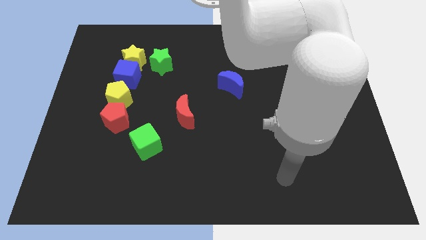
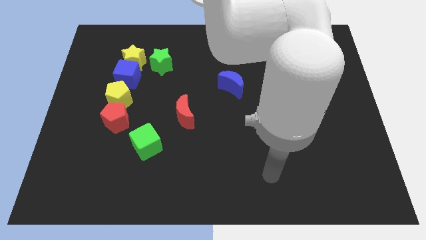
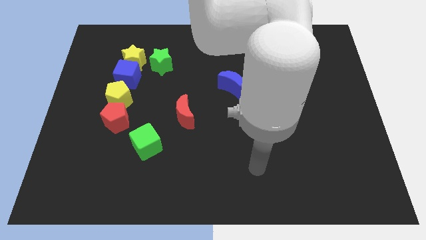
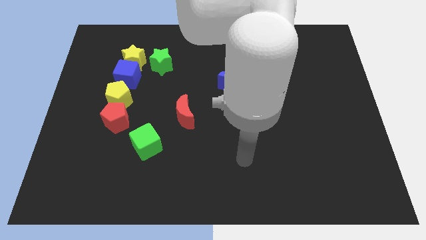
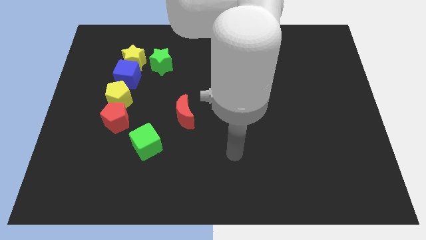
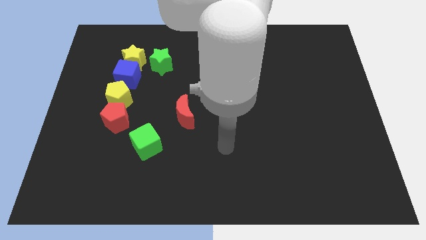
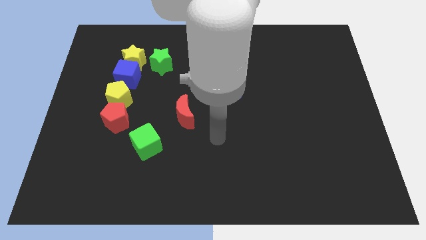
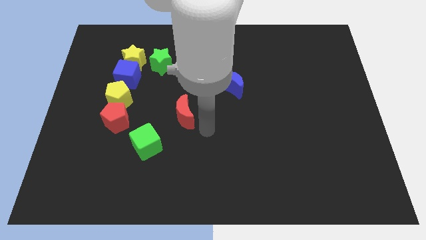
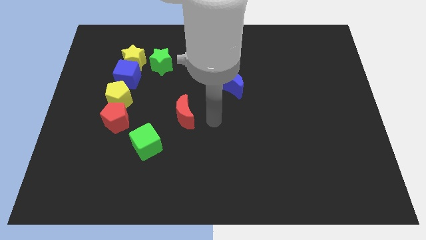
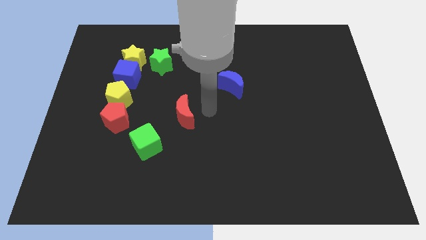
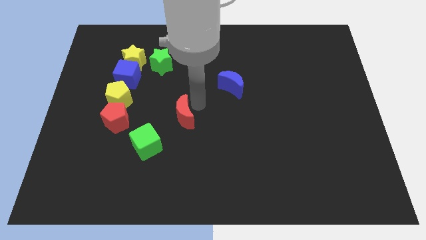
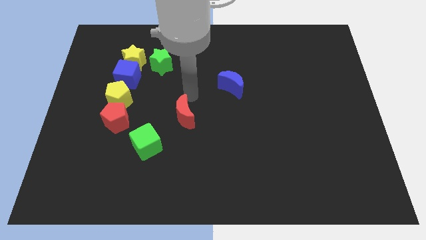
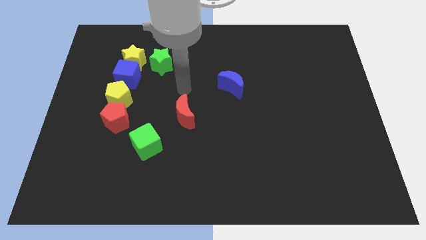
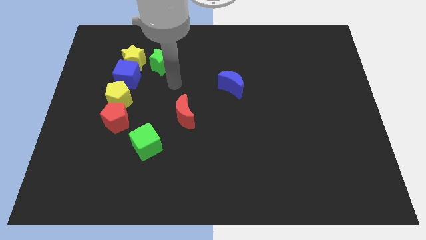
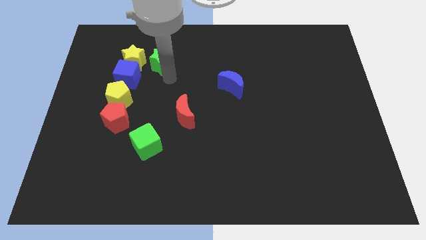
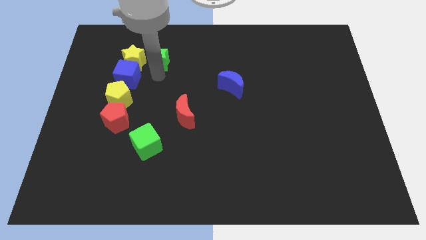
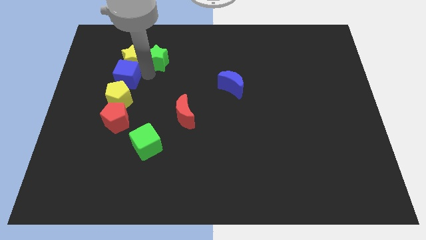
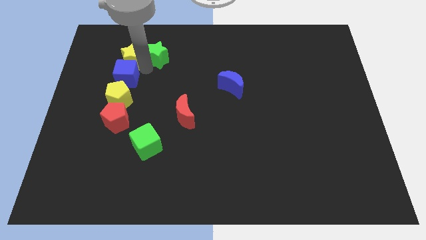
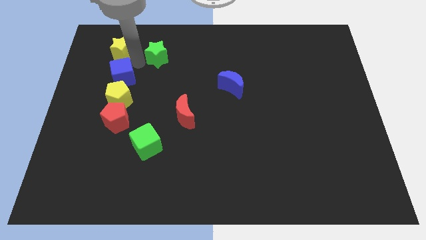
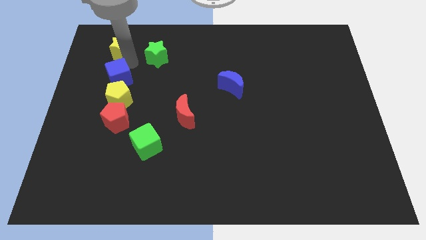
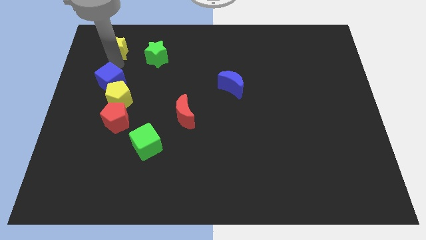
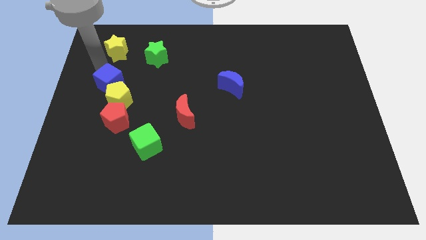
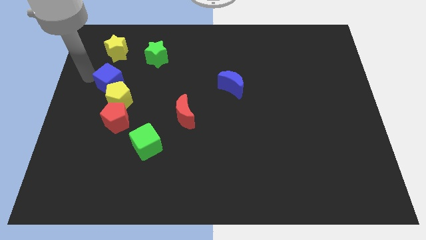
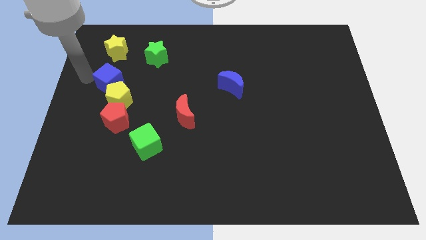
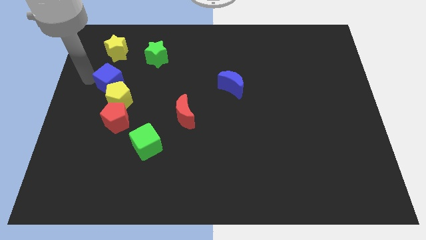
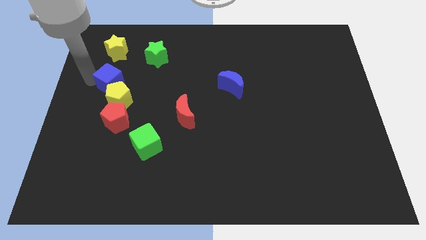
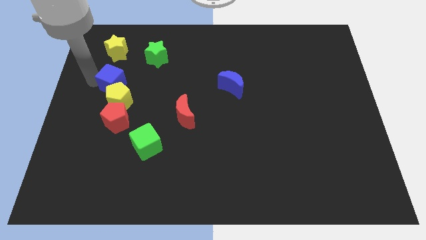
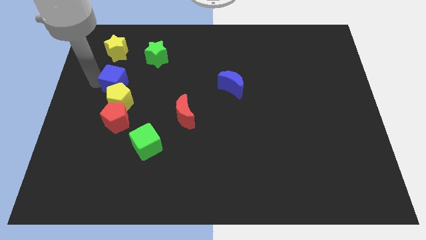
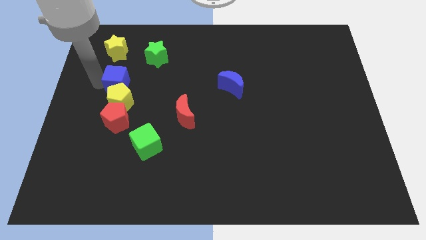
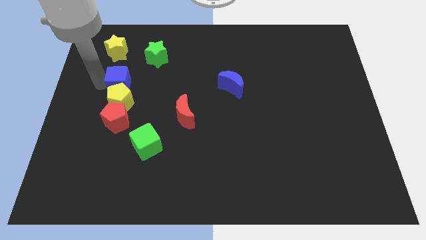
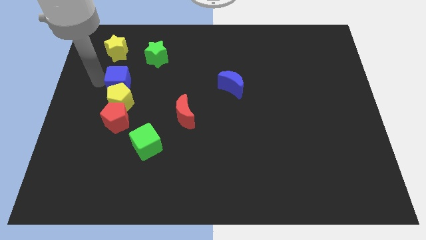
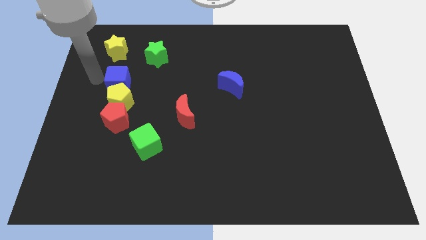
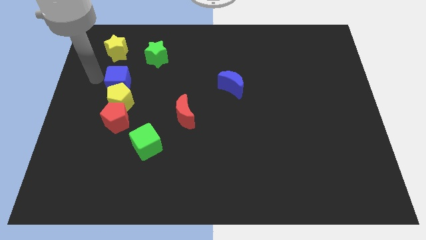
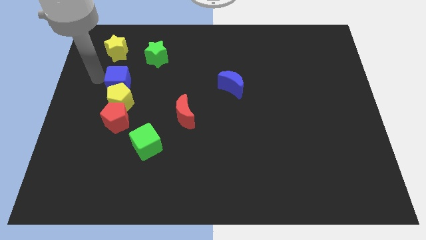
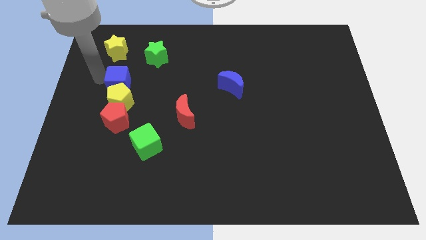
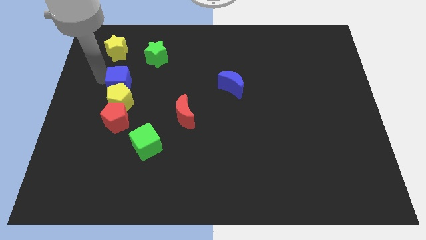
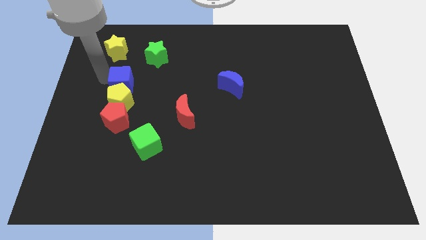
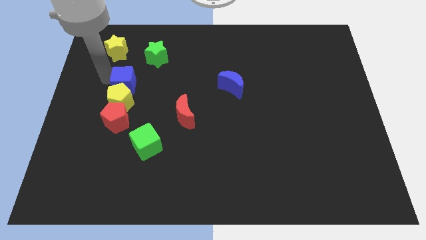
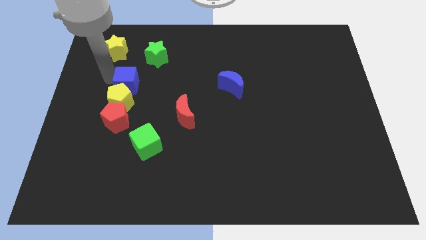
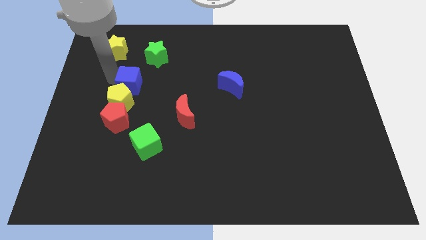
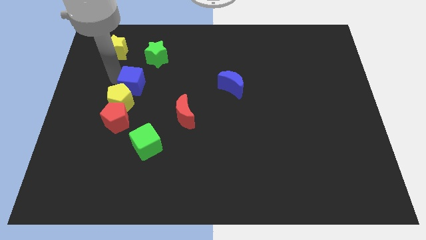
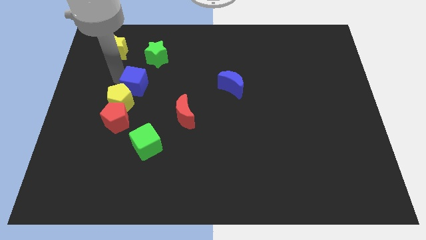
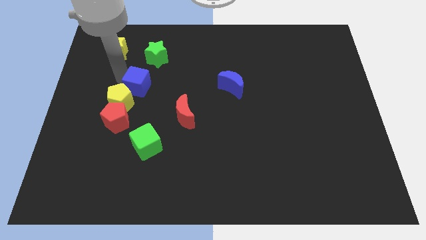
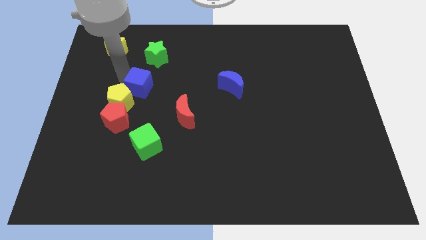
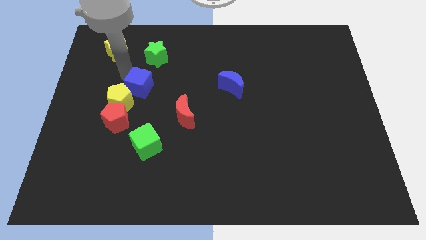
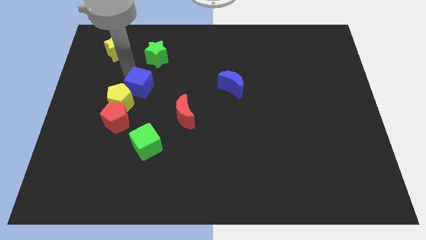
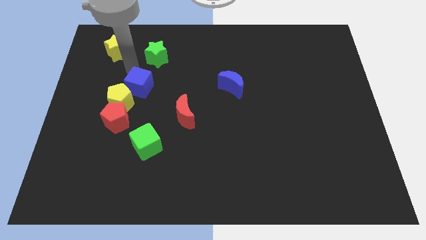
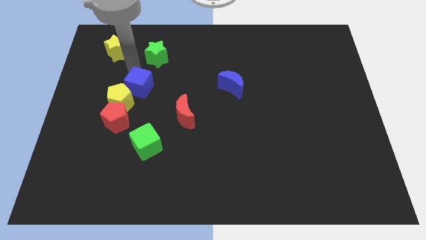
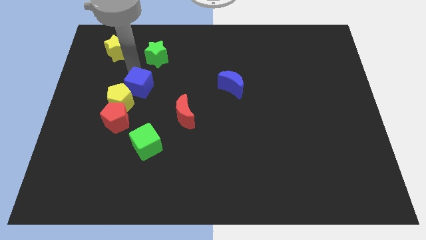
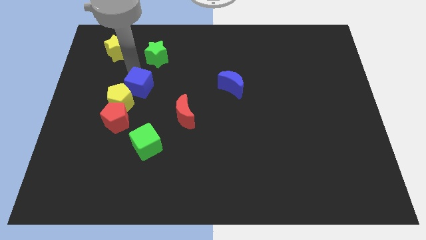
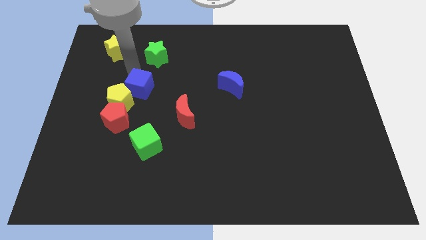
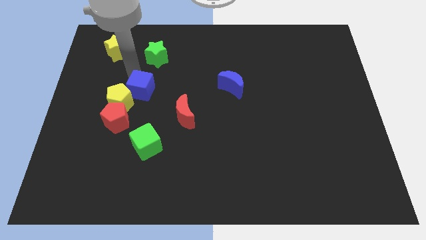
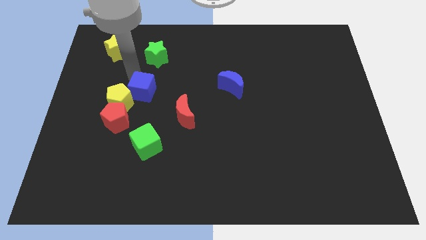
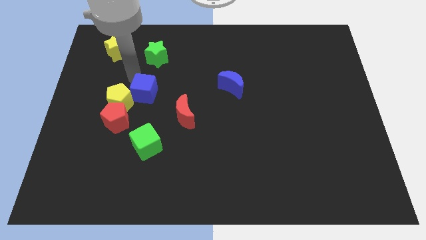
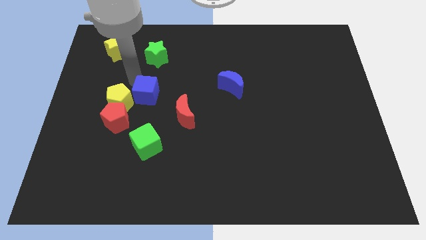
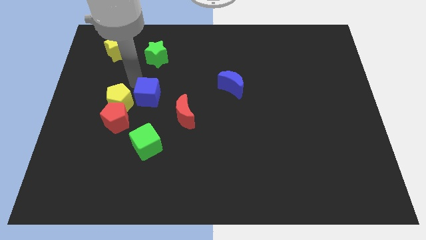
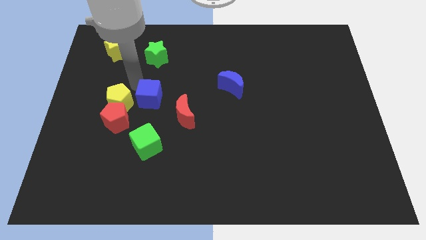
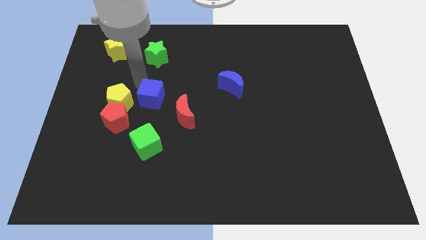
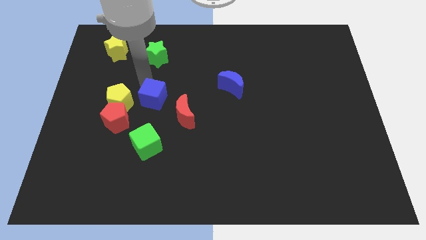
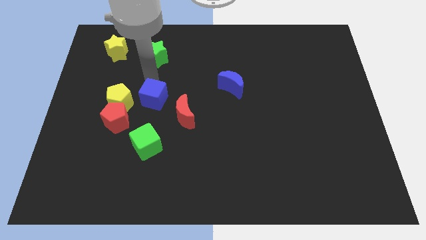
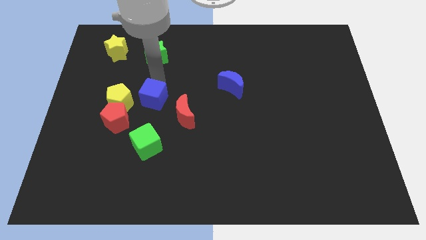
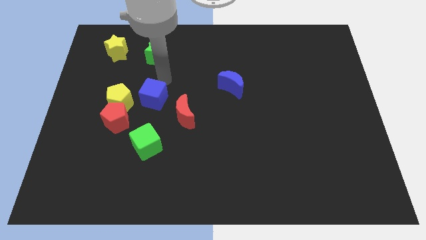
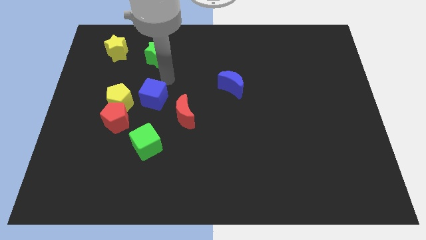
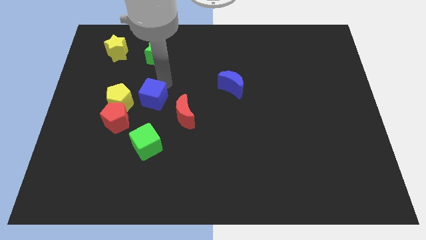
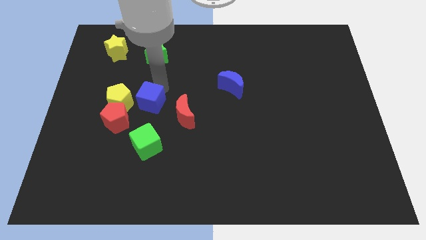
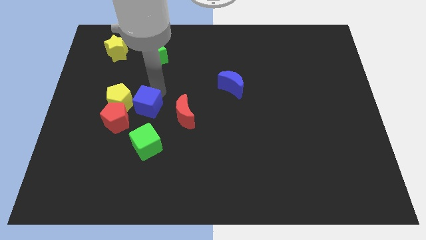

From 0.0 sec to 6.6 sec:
slide the blue cube somewhat down

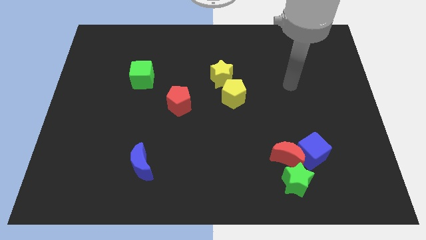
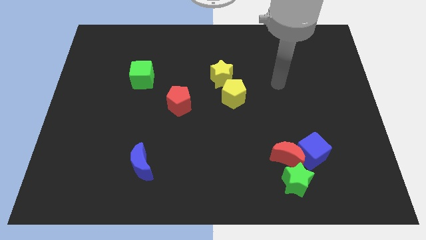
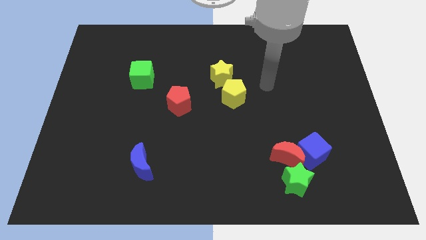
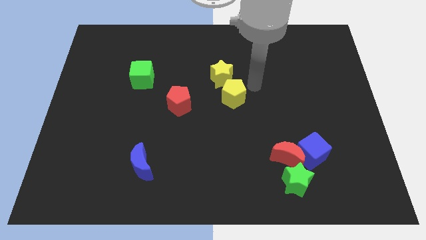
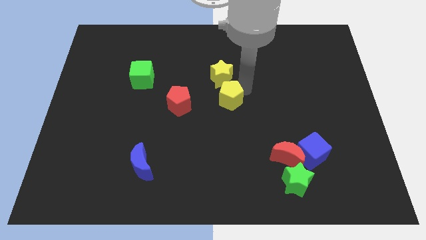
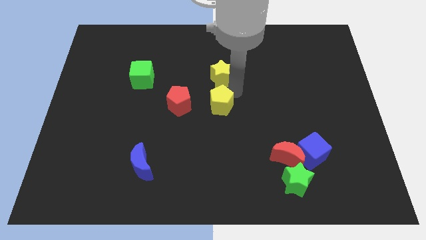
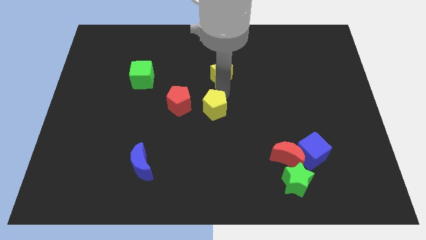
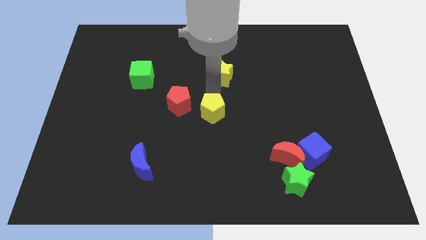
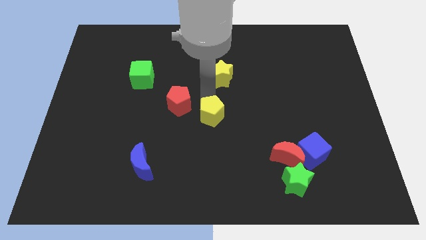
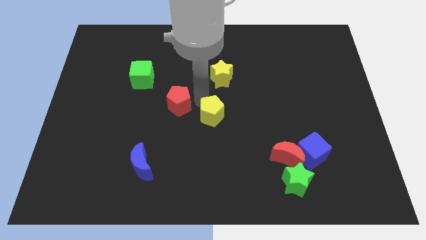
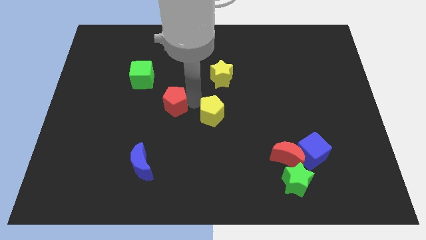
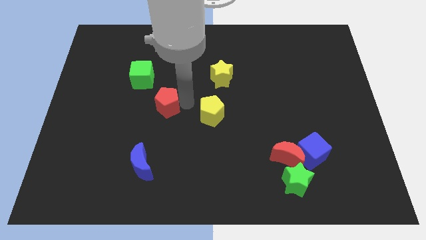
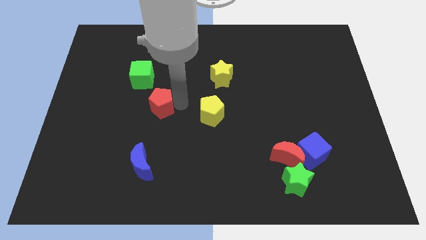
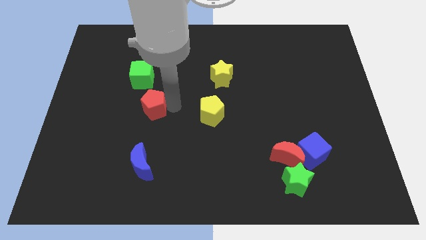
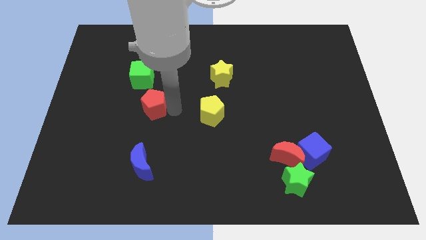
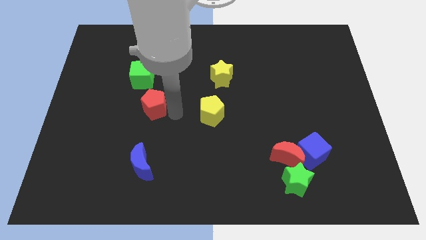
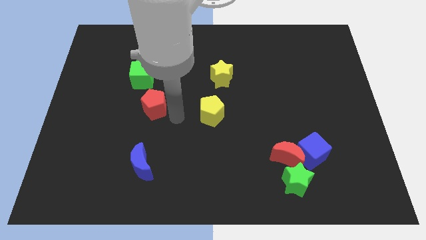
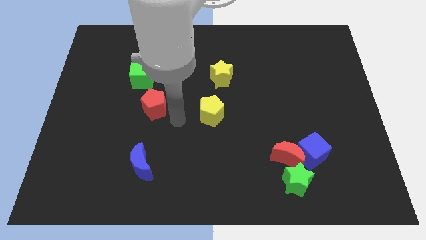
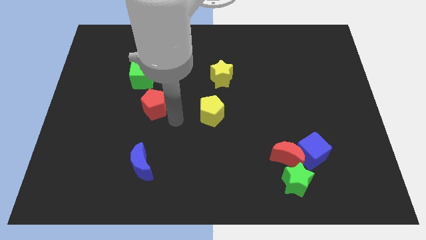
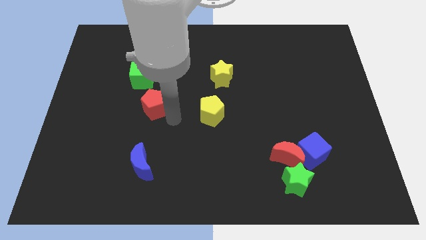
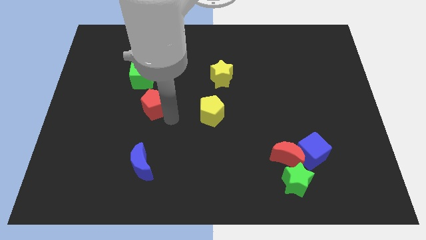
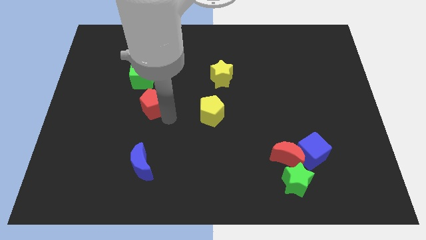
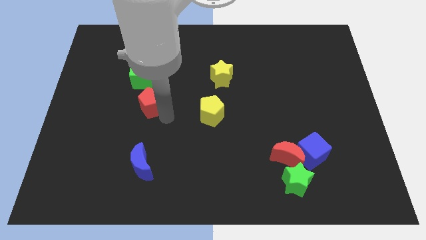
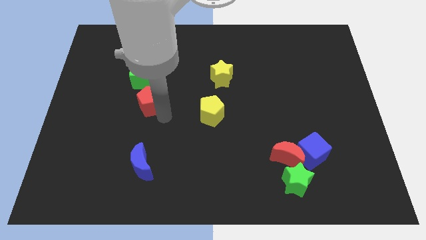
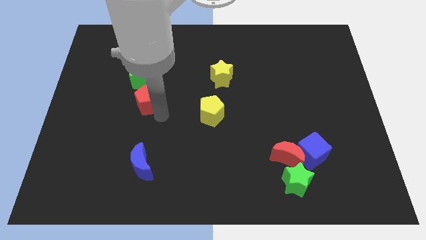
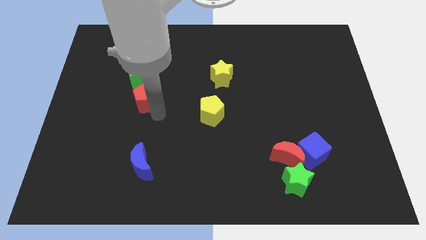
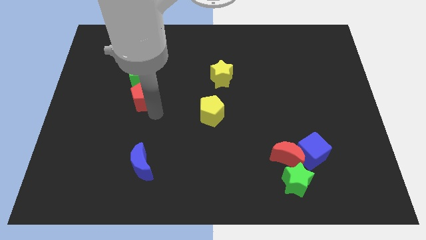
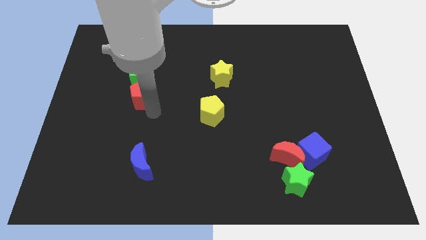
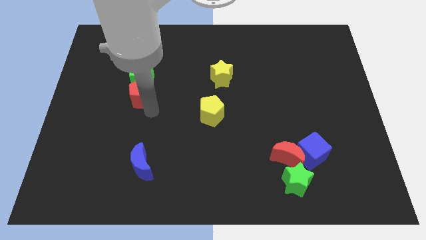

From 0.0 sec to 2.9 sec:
slightly slide the red pentagon upwards and to the left diagonally
